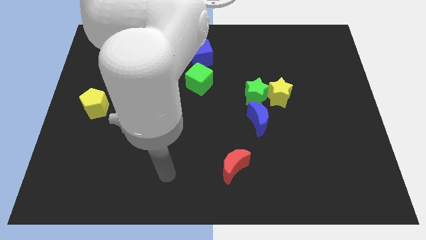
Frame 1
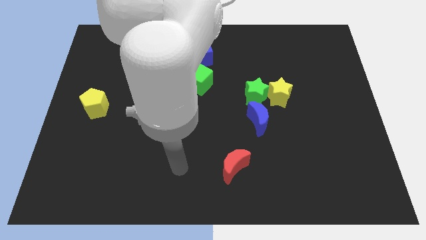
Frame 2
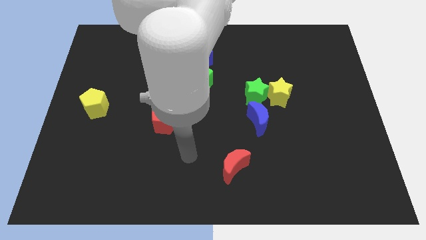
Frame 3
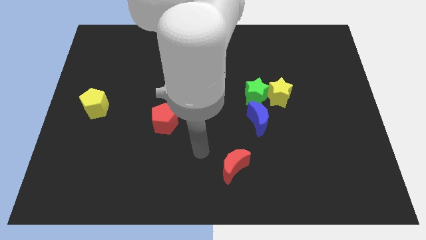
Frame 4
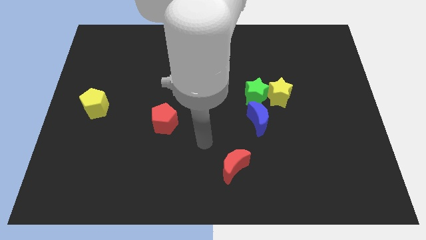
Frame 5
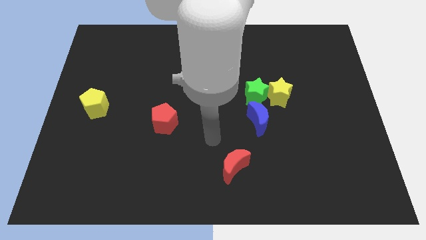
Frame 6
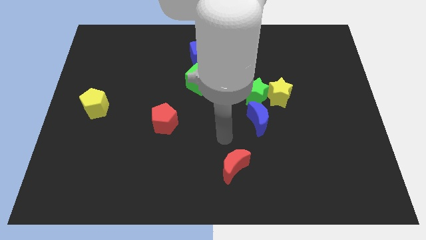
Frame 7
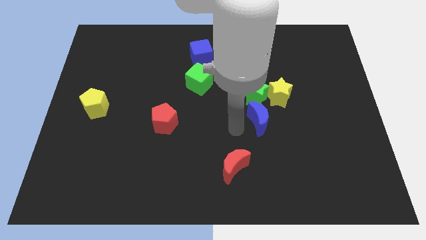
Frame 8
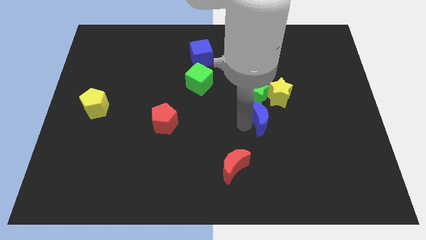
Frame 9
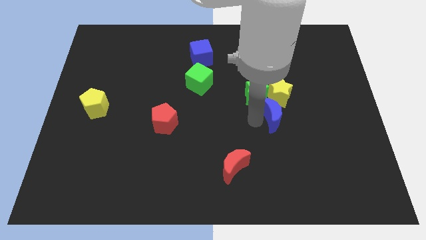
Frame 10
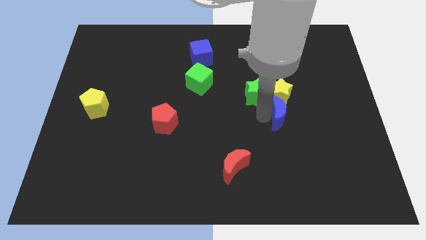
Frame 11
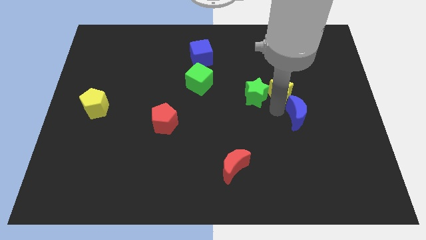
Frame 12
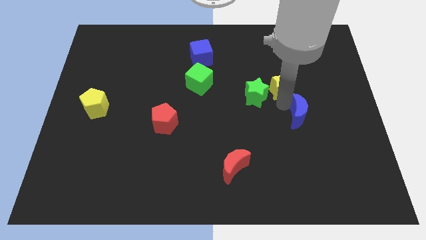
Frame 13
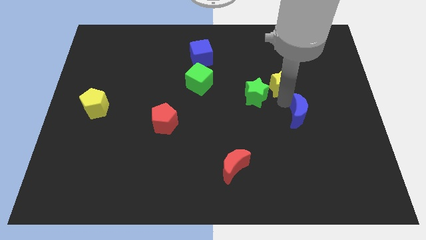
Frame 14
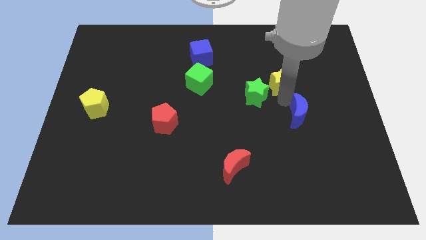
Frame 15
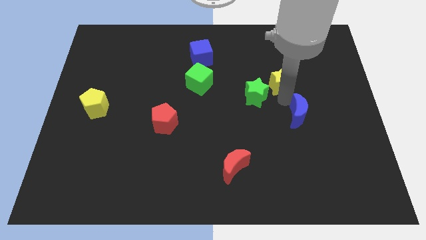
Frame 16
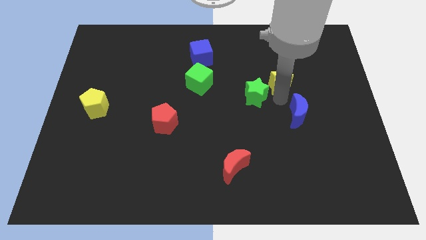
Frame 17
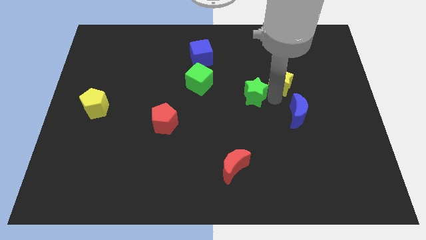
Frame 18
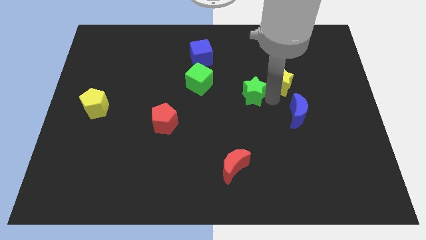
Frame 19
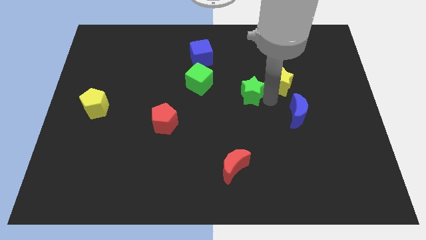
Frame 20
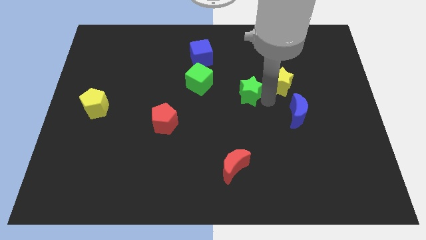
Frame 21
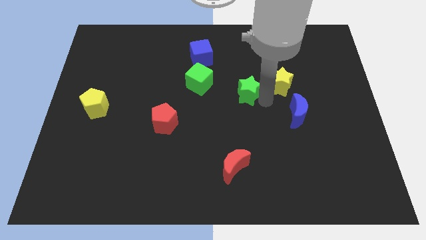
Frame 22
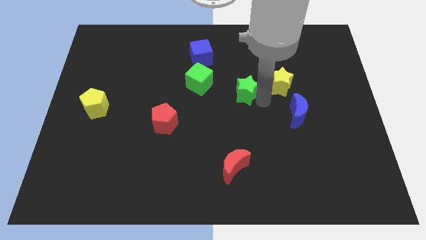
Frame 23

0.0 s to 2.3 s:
pull the green star apart from the yellow star and blue moon

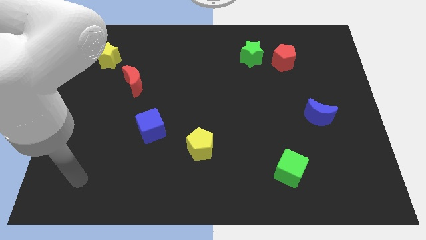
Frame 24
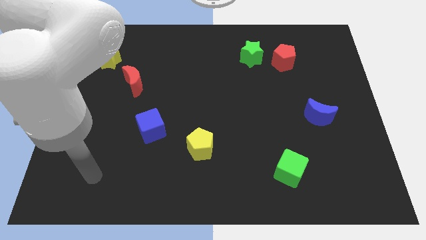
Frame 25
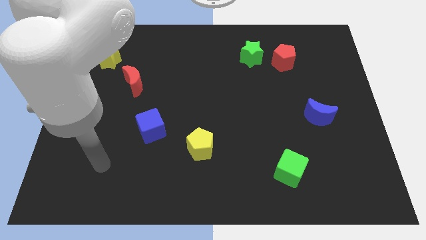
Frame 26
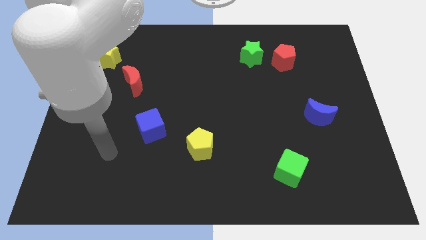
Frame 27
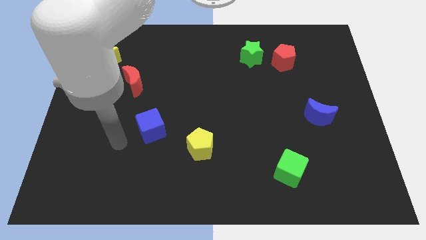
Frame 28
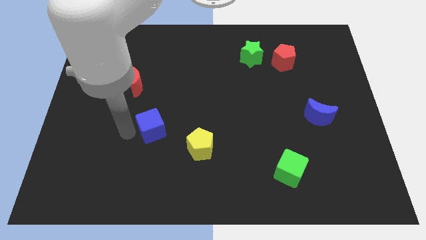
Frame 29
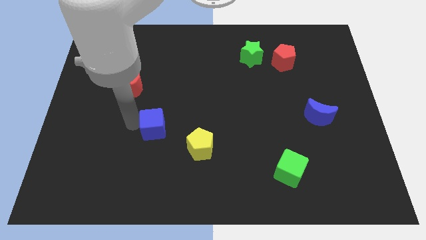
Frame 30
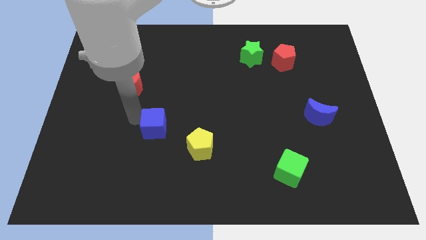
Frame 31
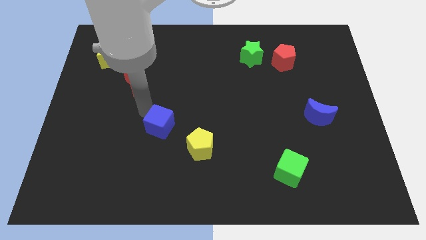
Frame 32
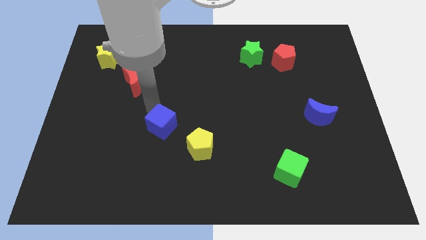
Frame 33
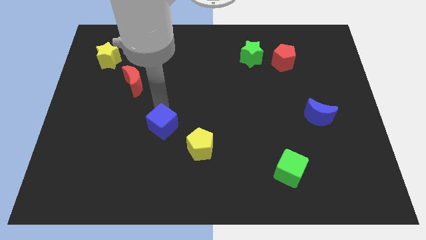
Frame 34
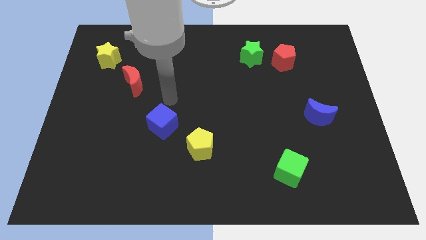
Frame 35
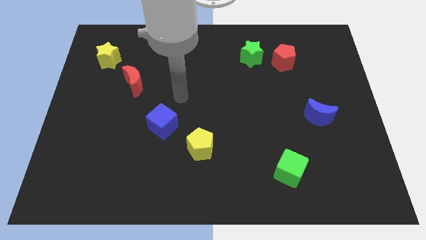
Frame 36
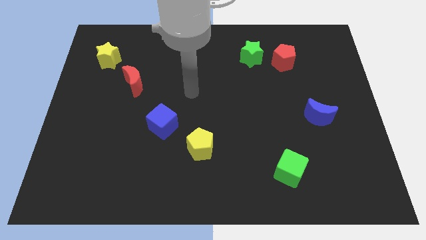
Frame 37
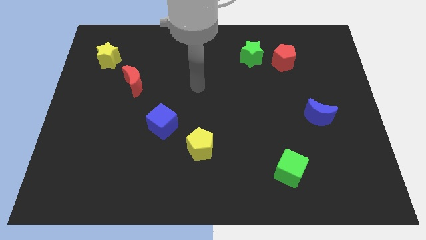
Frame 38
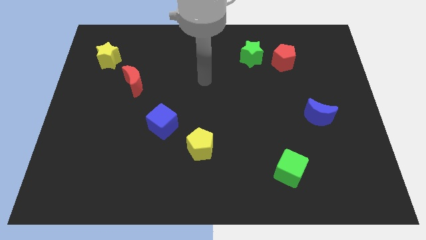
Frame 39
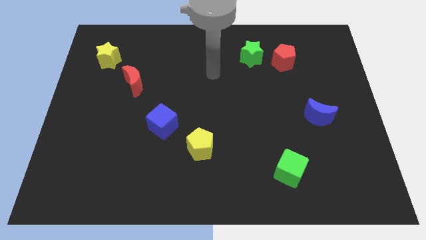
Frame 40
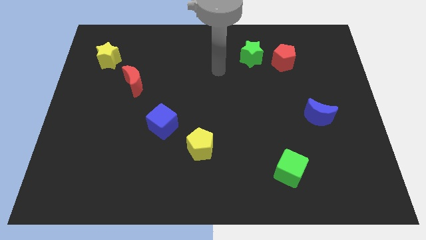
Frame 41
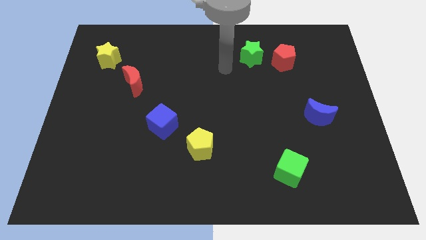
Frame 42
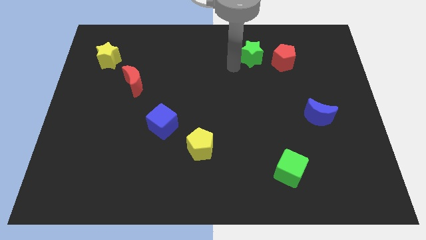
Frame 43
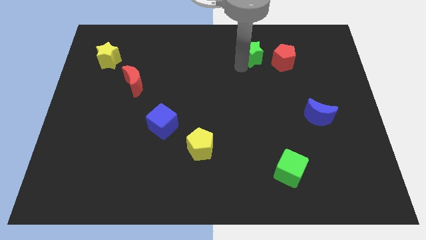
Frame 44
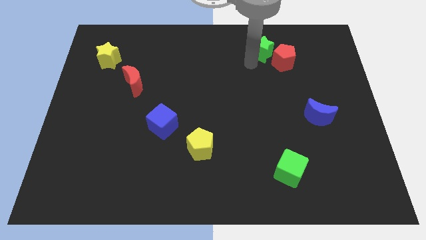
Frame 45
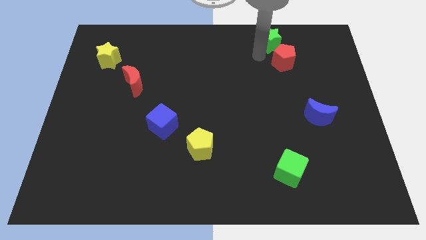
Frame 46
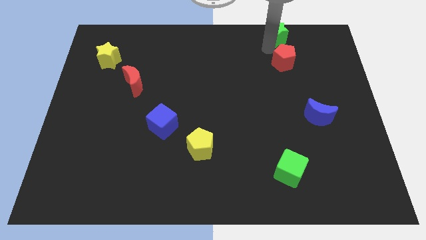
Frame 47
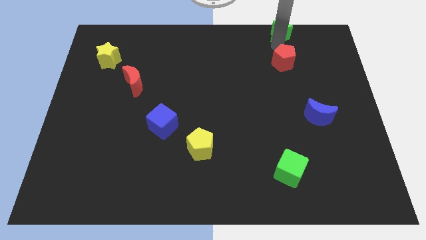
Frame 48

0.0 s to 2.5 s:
pull the red pentagon apart from the green star

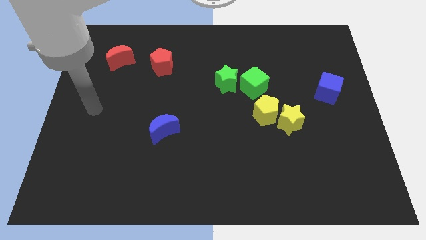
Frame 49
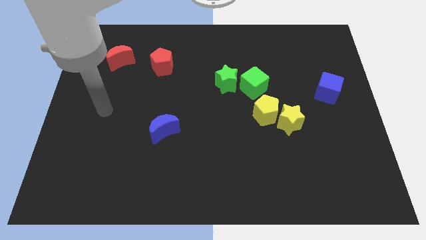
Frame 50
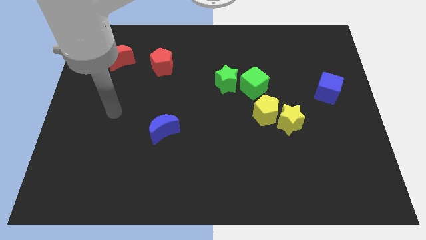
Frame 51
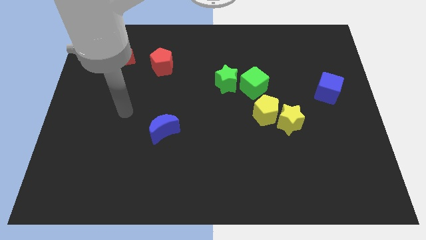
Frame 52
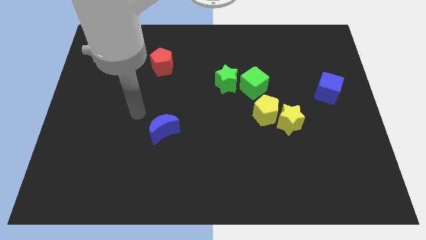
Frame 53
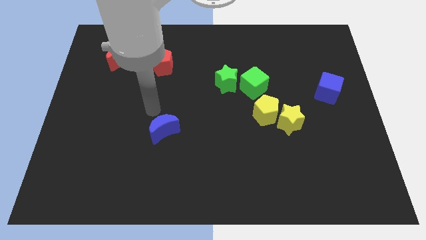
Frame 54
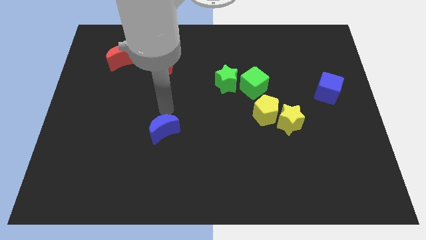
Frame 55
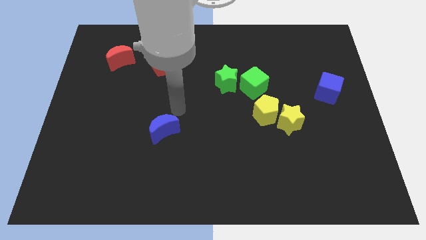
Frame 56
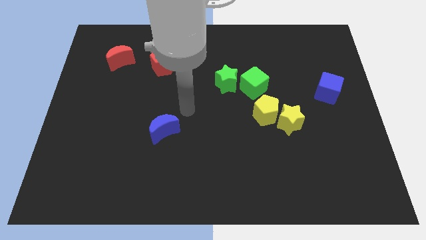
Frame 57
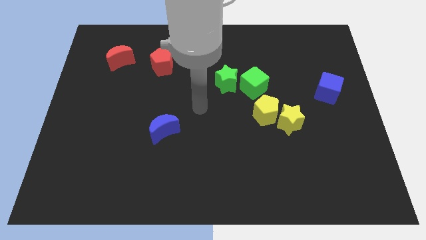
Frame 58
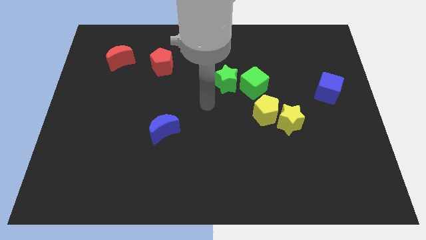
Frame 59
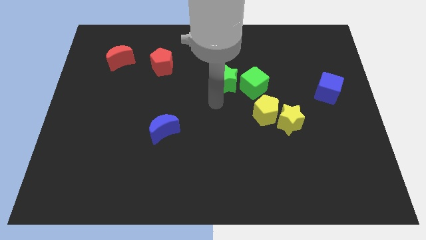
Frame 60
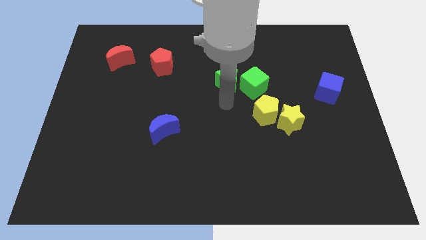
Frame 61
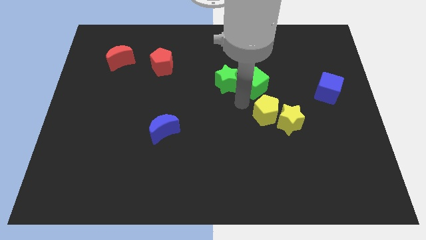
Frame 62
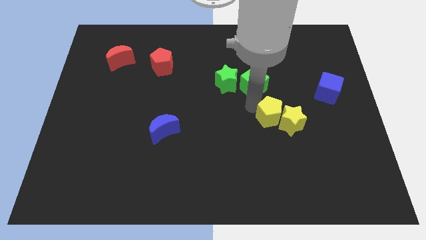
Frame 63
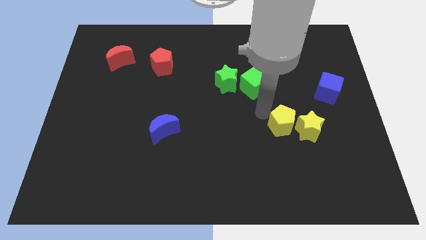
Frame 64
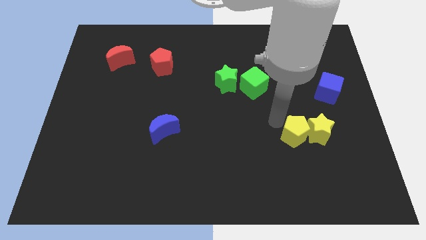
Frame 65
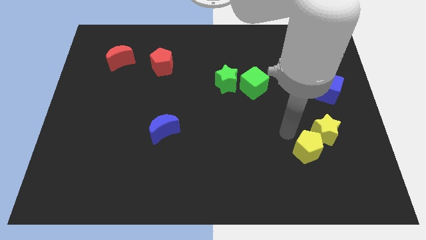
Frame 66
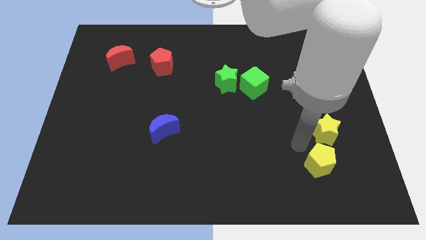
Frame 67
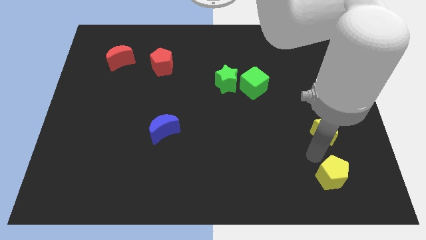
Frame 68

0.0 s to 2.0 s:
separate the yellow star from the yellow pentagon

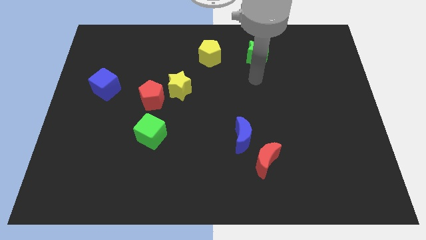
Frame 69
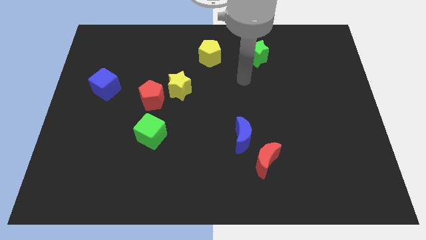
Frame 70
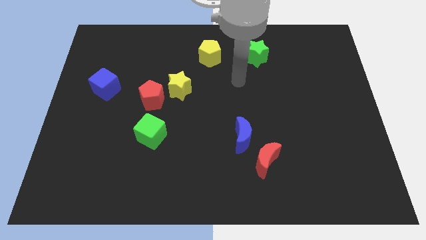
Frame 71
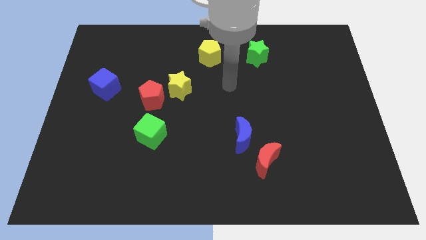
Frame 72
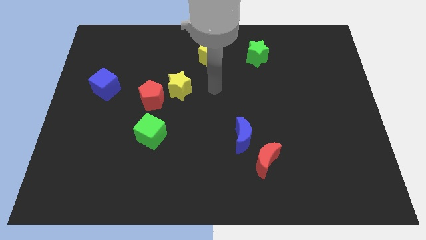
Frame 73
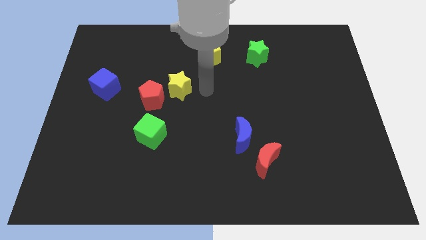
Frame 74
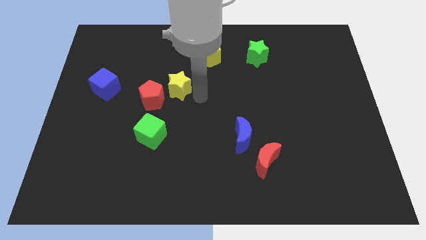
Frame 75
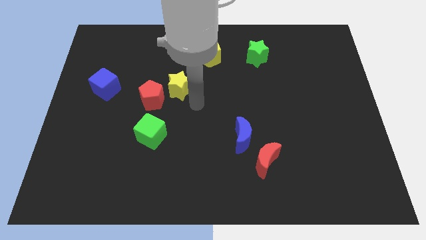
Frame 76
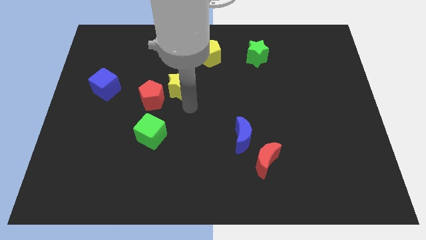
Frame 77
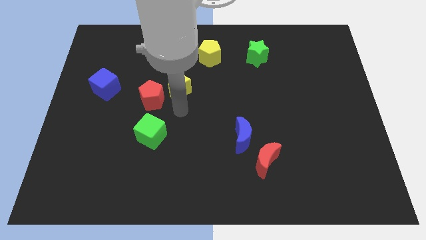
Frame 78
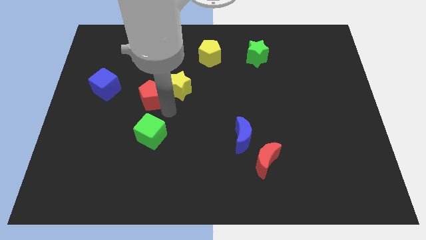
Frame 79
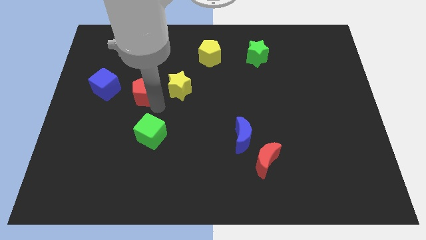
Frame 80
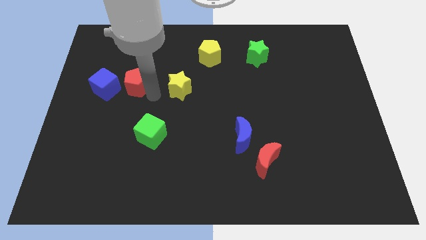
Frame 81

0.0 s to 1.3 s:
pull the yellow star apart from the red pentagon

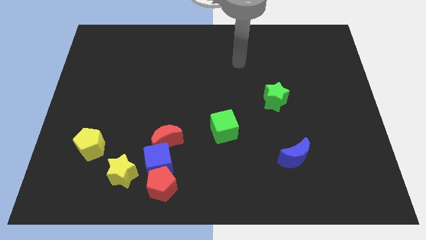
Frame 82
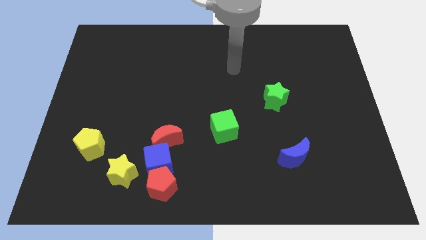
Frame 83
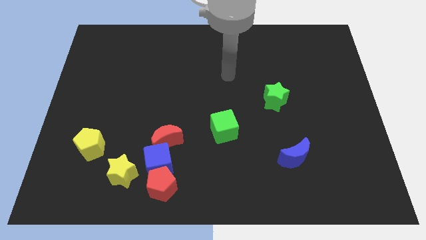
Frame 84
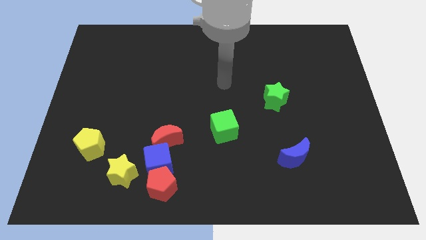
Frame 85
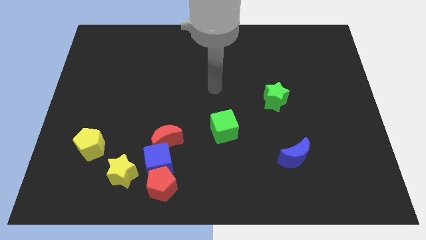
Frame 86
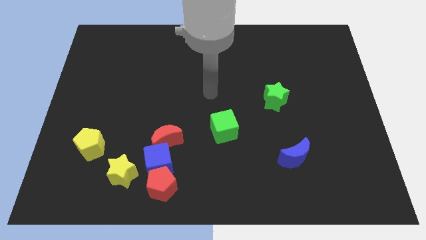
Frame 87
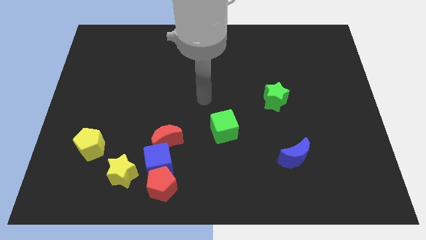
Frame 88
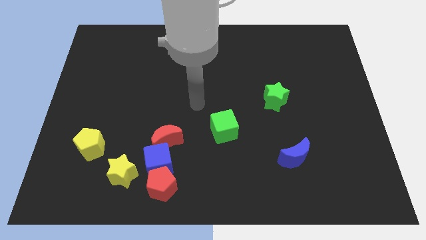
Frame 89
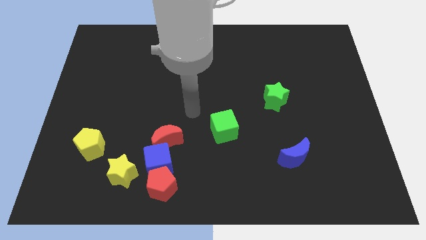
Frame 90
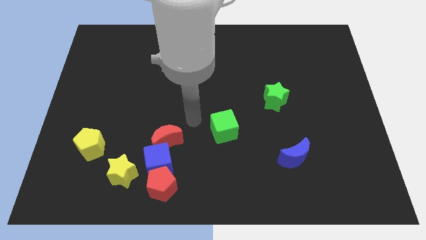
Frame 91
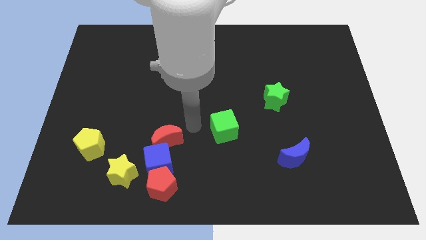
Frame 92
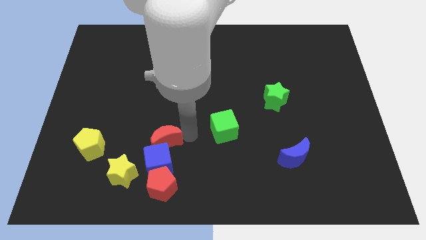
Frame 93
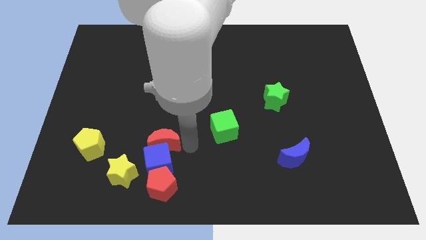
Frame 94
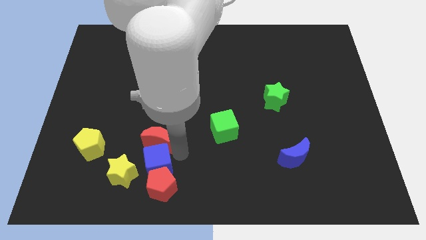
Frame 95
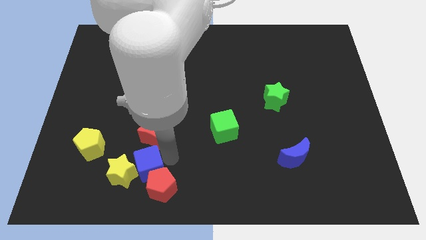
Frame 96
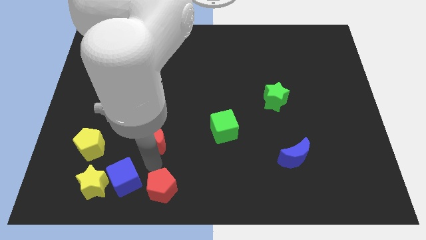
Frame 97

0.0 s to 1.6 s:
pull the red moon apart from the blue cube
